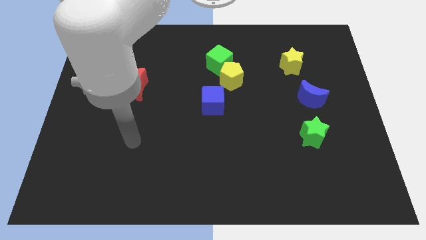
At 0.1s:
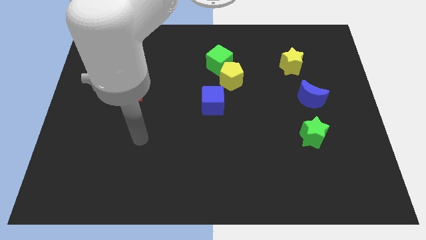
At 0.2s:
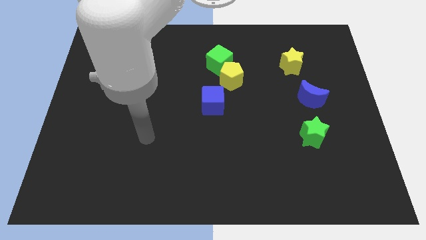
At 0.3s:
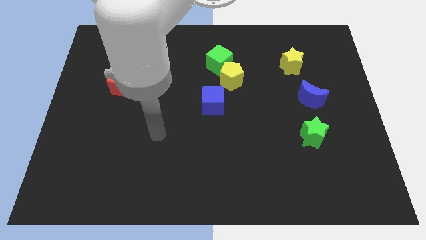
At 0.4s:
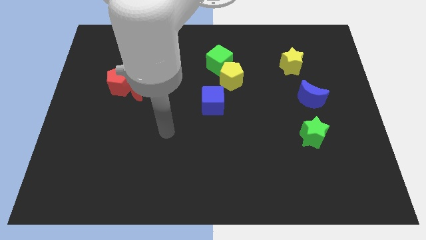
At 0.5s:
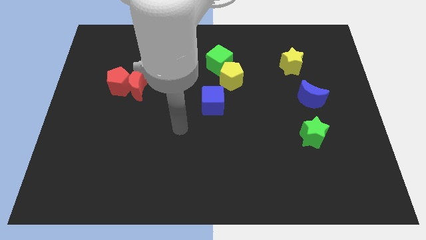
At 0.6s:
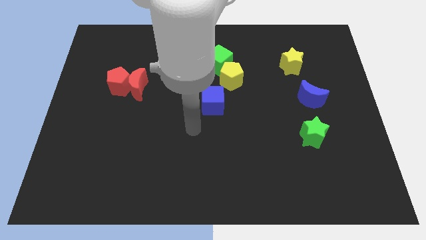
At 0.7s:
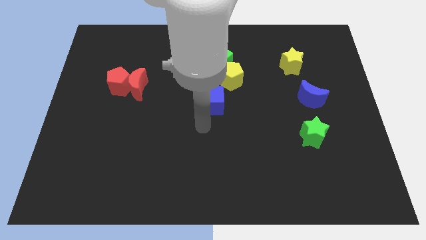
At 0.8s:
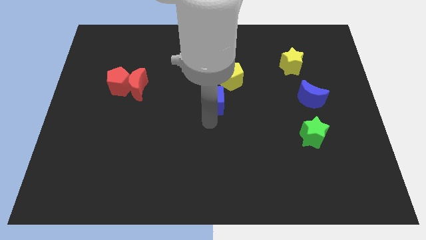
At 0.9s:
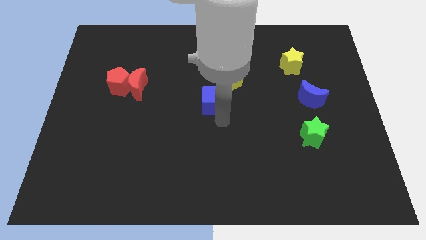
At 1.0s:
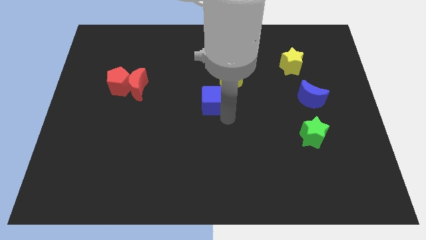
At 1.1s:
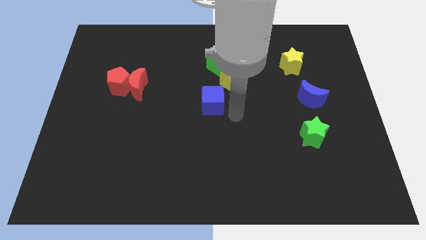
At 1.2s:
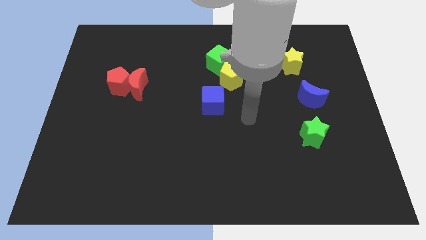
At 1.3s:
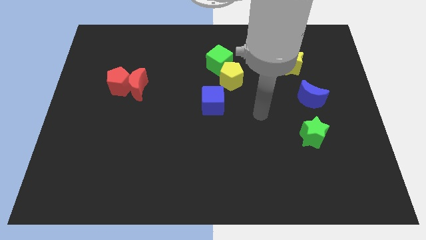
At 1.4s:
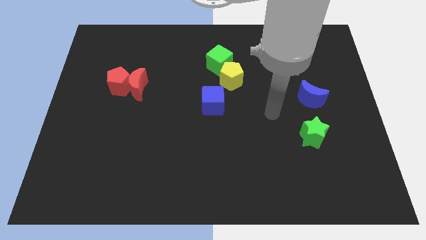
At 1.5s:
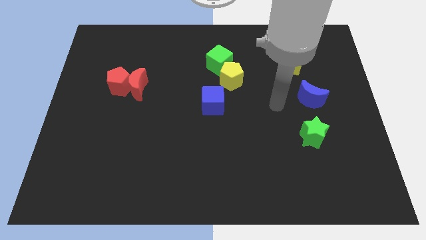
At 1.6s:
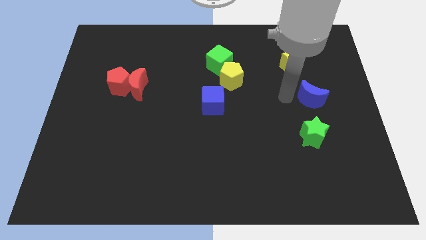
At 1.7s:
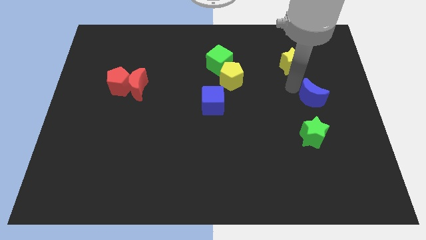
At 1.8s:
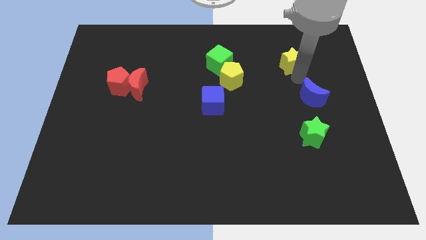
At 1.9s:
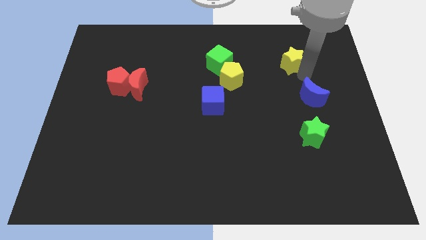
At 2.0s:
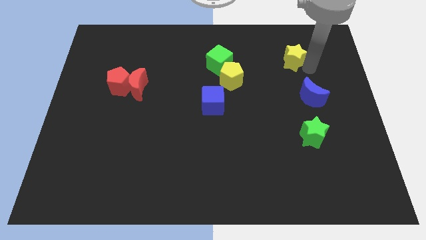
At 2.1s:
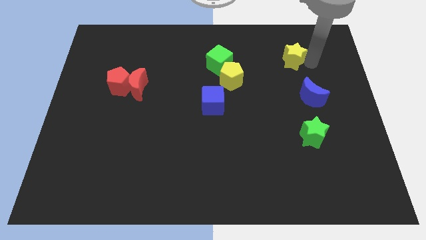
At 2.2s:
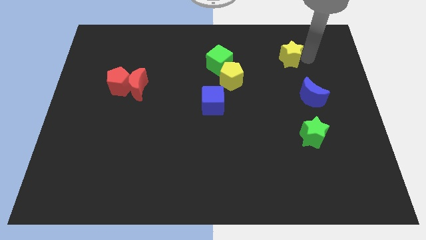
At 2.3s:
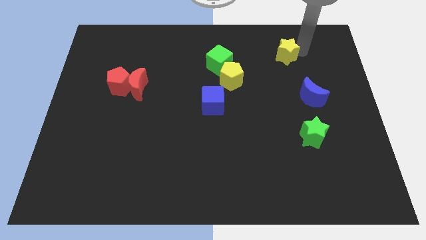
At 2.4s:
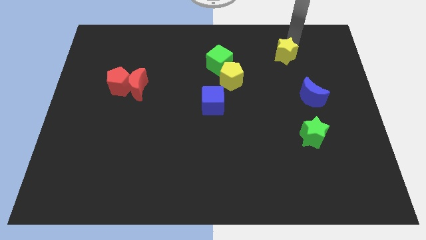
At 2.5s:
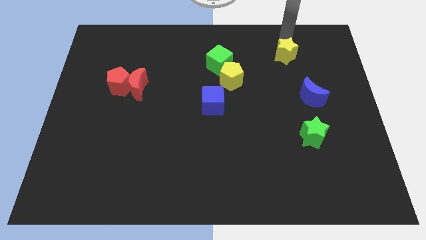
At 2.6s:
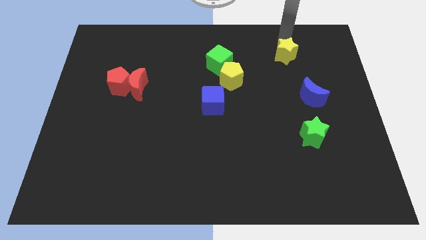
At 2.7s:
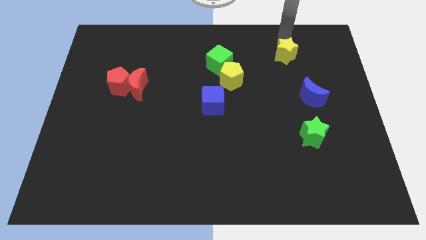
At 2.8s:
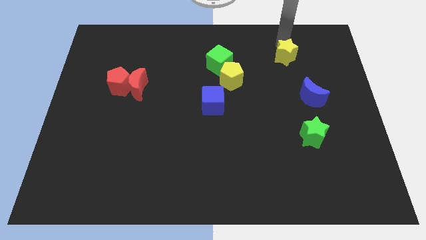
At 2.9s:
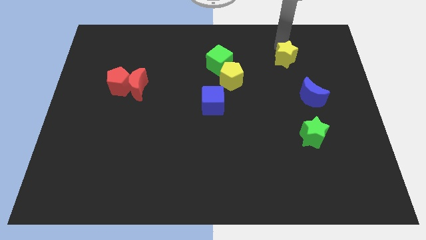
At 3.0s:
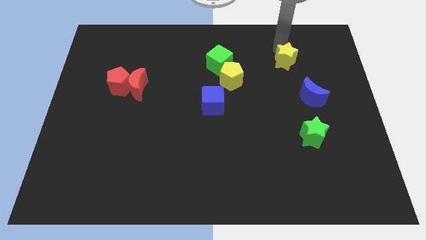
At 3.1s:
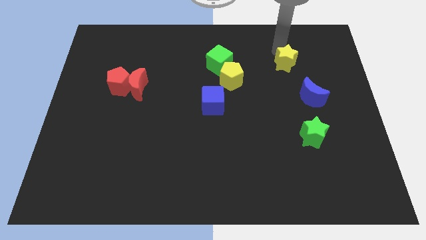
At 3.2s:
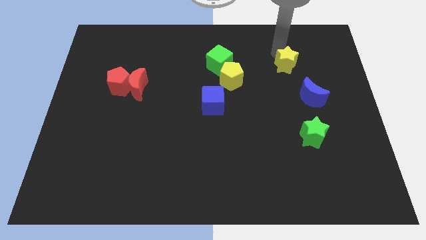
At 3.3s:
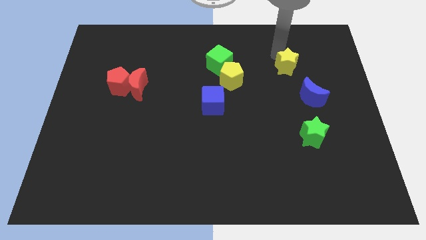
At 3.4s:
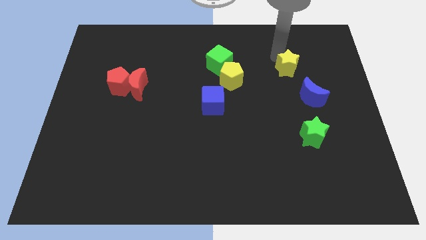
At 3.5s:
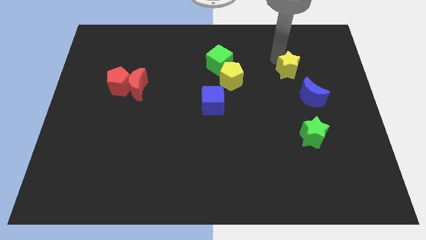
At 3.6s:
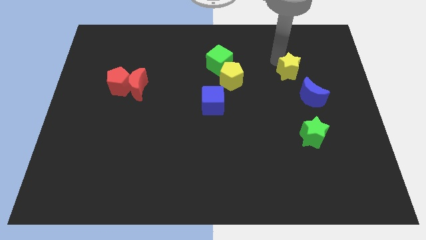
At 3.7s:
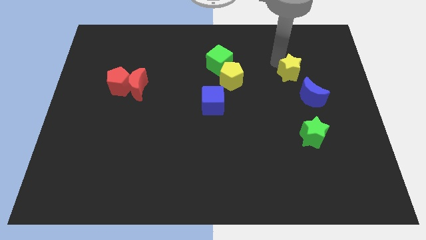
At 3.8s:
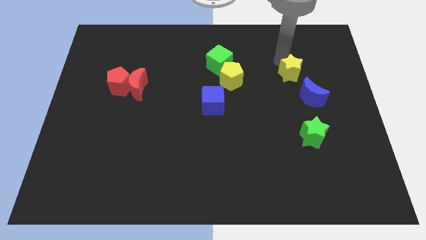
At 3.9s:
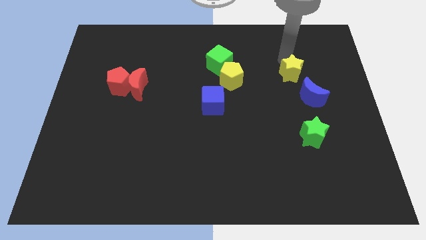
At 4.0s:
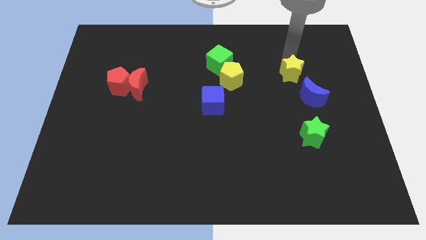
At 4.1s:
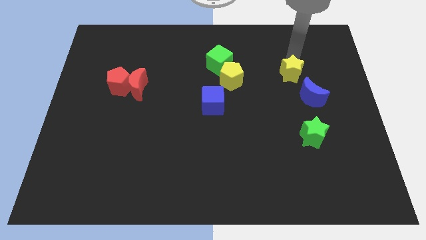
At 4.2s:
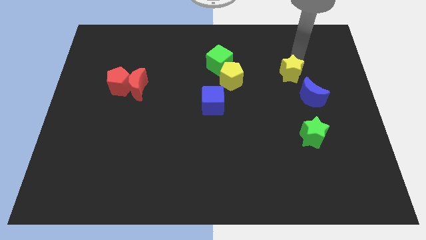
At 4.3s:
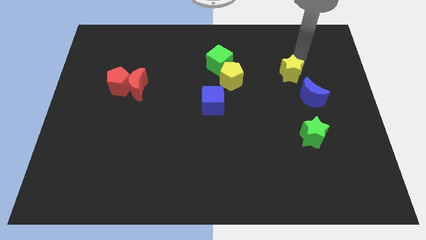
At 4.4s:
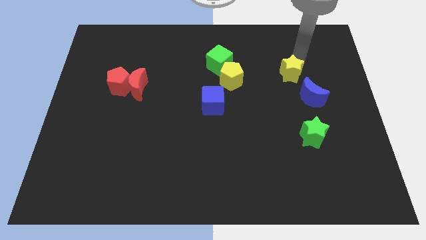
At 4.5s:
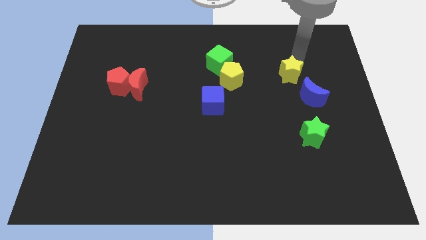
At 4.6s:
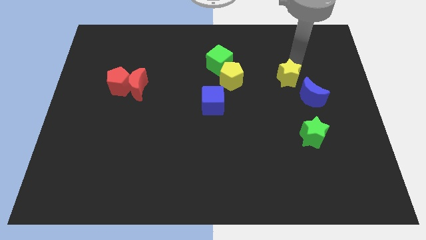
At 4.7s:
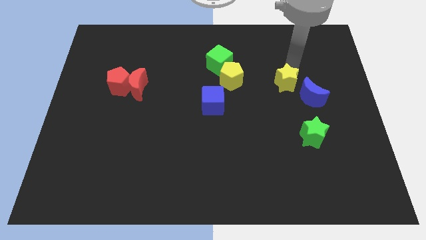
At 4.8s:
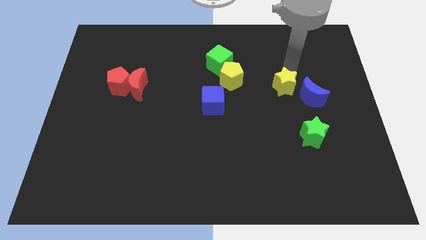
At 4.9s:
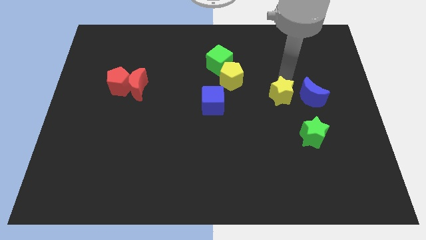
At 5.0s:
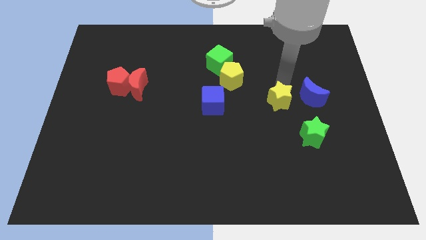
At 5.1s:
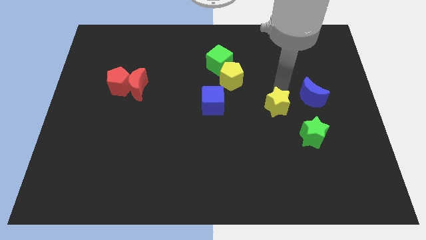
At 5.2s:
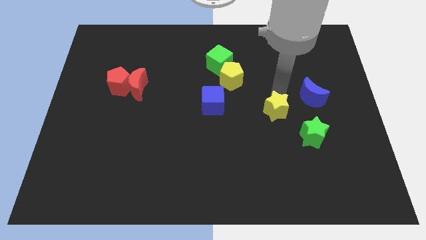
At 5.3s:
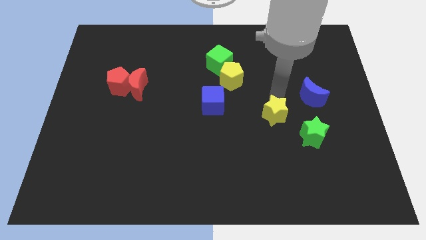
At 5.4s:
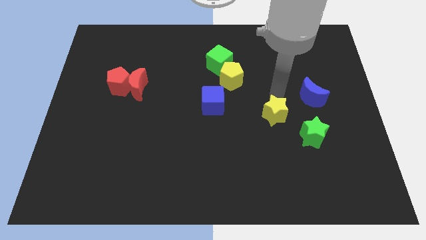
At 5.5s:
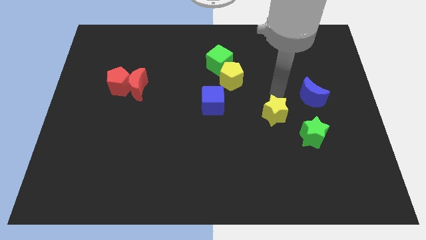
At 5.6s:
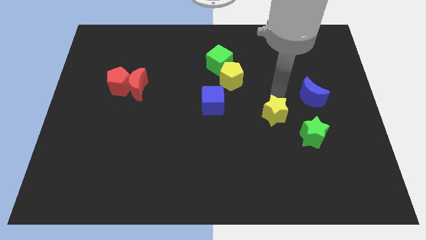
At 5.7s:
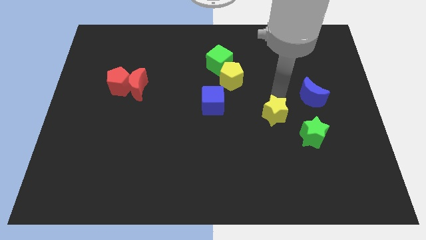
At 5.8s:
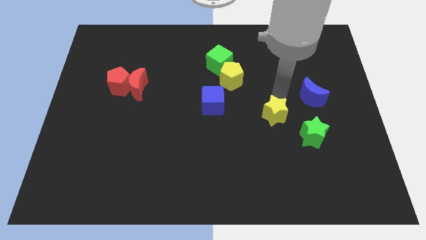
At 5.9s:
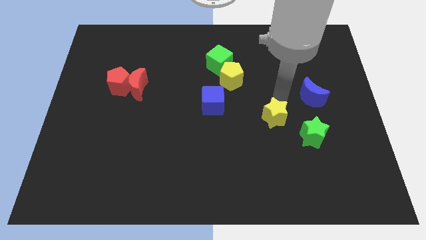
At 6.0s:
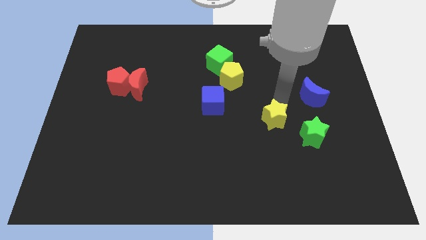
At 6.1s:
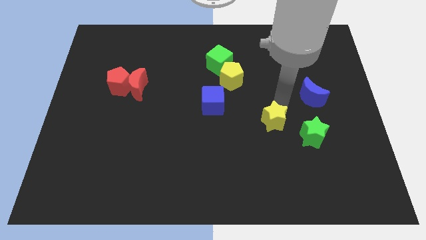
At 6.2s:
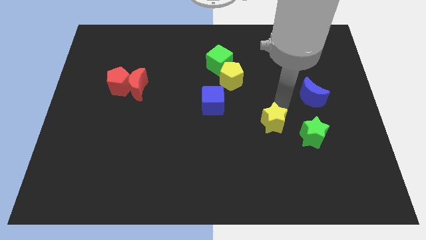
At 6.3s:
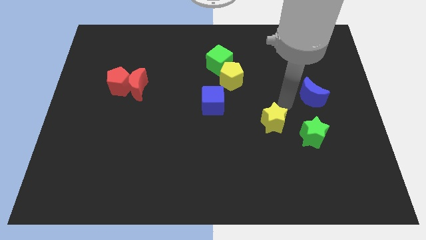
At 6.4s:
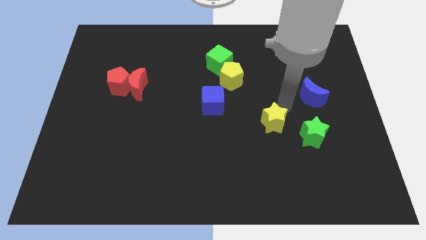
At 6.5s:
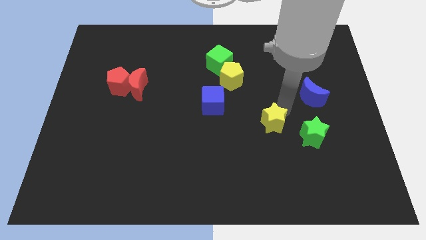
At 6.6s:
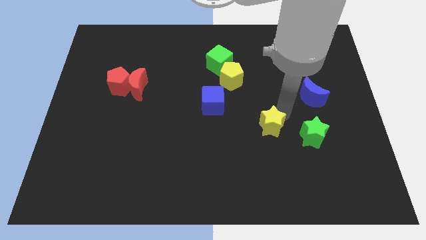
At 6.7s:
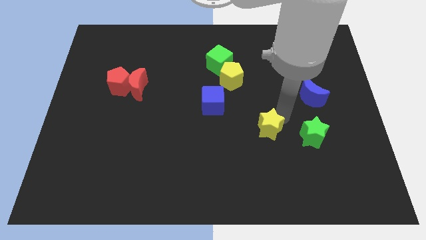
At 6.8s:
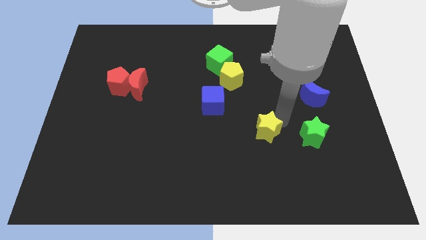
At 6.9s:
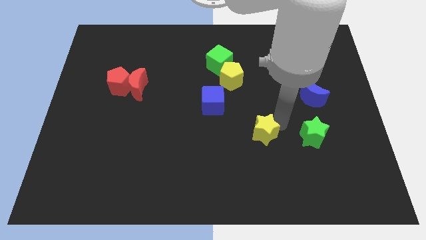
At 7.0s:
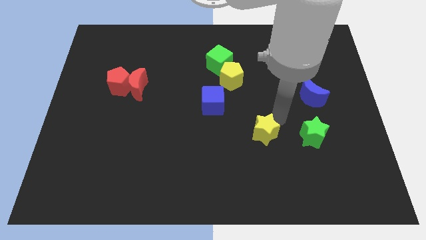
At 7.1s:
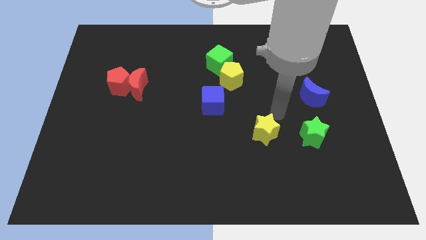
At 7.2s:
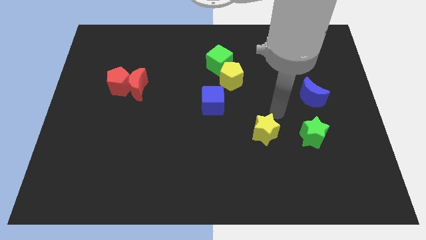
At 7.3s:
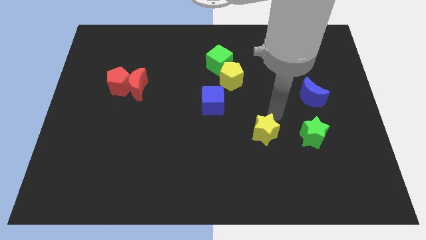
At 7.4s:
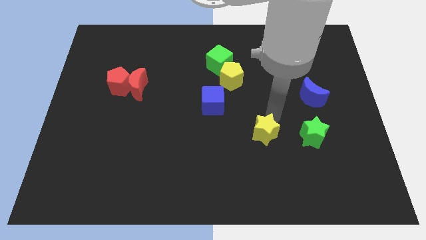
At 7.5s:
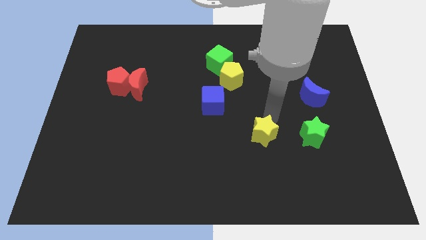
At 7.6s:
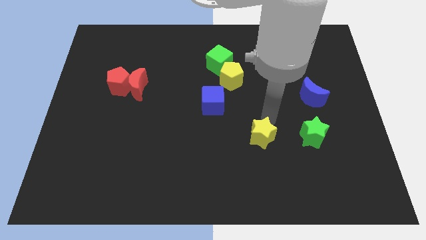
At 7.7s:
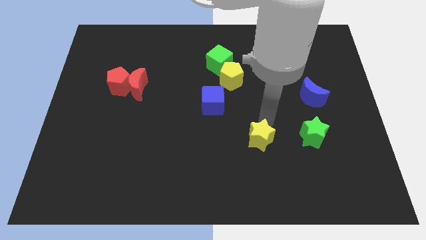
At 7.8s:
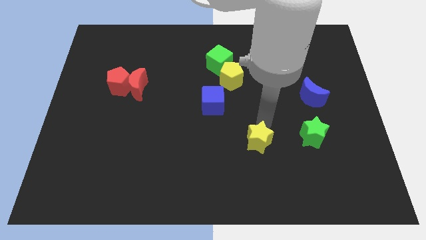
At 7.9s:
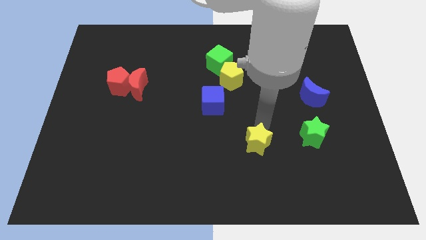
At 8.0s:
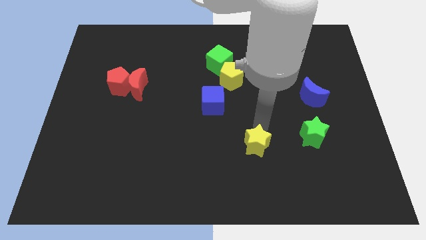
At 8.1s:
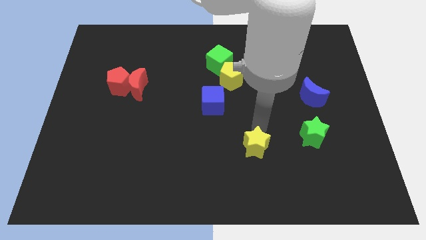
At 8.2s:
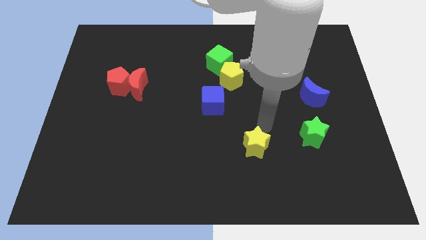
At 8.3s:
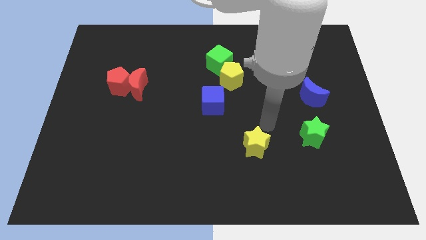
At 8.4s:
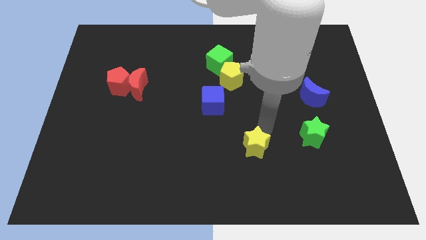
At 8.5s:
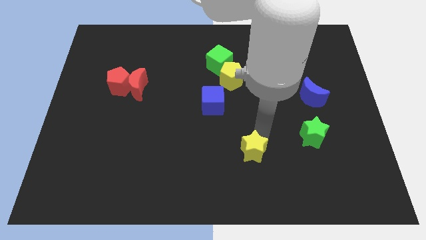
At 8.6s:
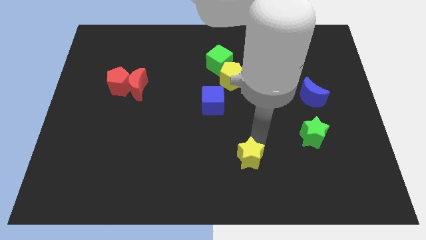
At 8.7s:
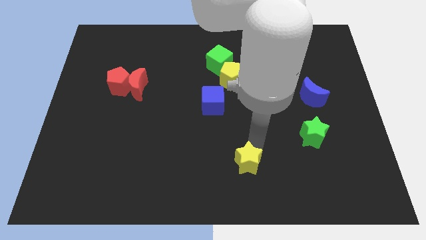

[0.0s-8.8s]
push the yellow star to the bottom
